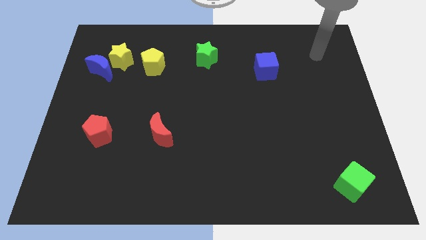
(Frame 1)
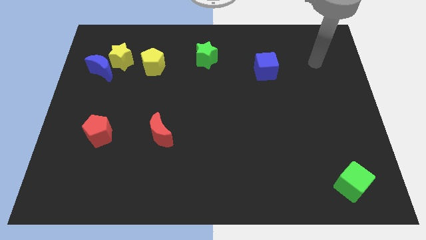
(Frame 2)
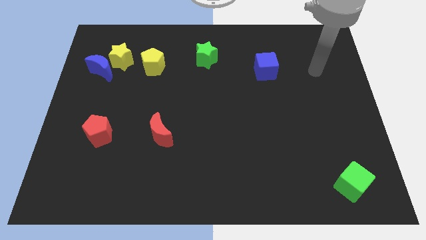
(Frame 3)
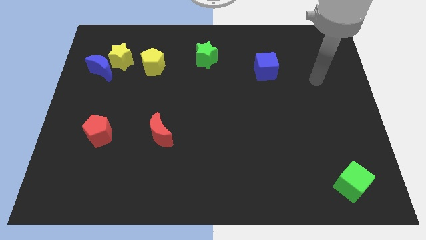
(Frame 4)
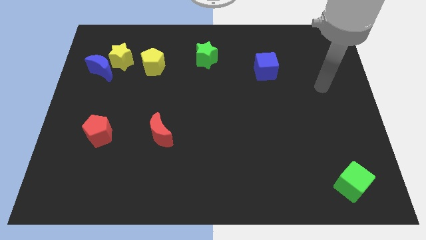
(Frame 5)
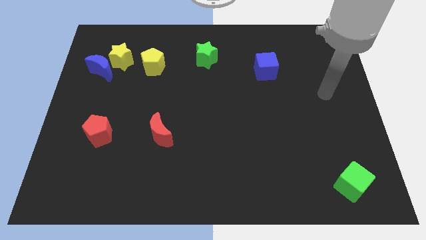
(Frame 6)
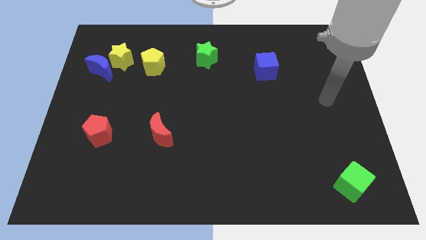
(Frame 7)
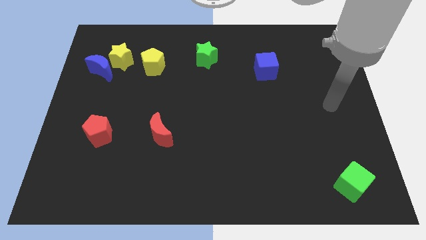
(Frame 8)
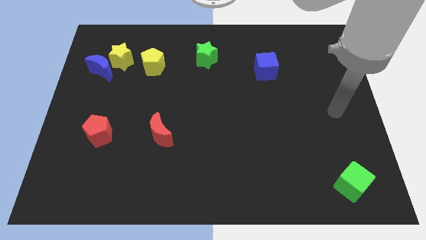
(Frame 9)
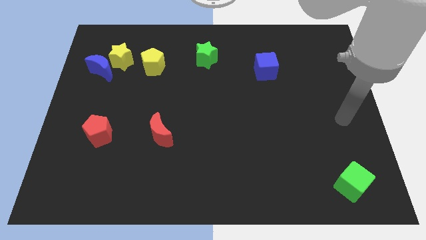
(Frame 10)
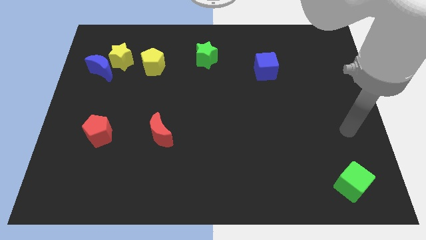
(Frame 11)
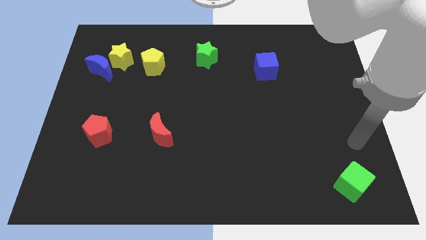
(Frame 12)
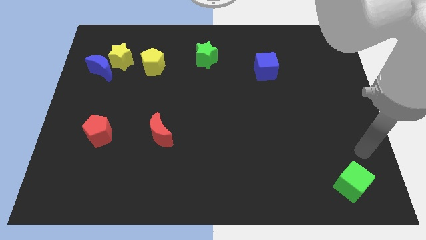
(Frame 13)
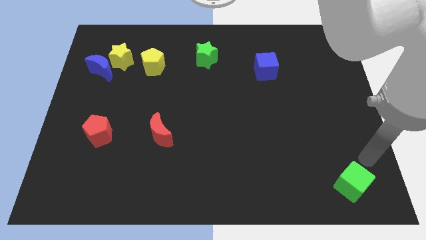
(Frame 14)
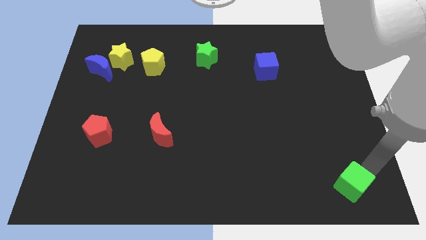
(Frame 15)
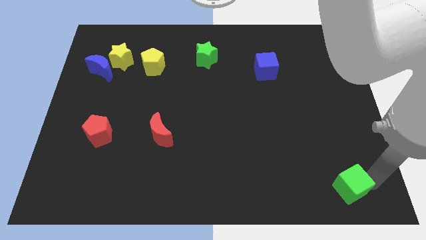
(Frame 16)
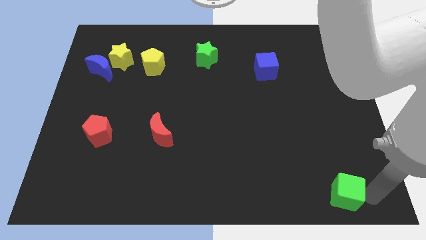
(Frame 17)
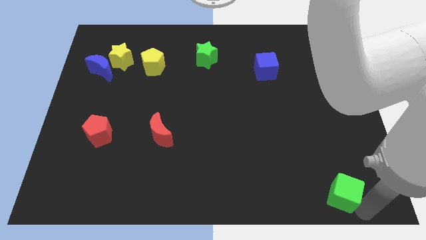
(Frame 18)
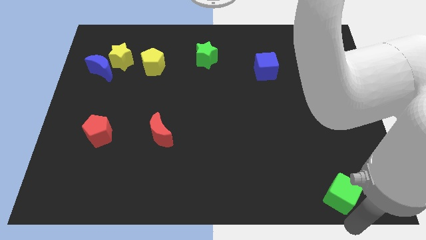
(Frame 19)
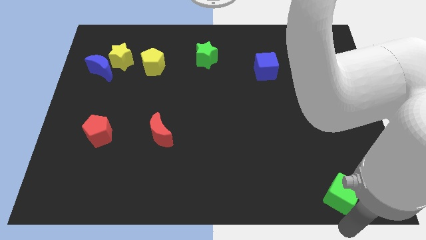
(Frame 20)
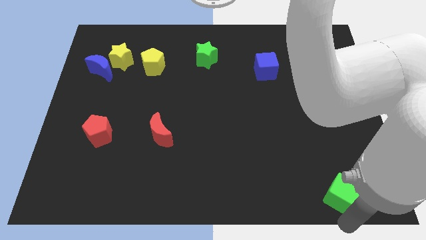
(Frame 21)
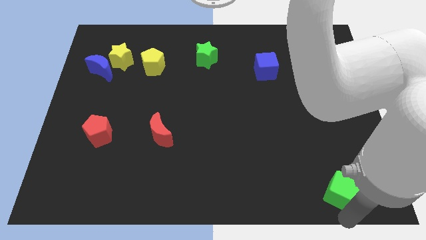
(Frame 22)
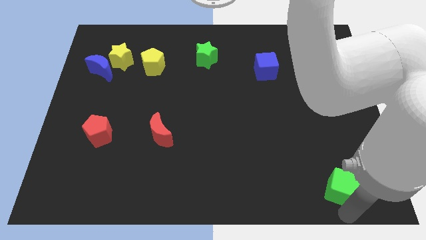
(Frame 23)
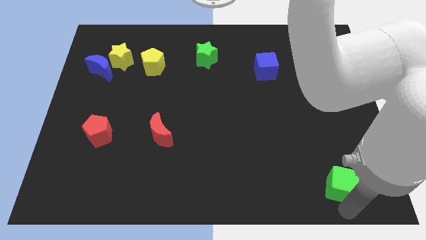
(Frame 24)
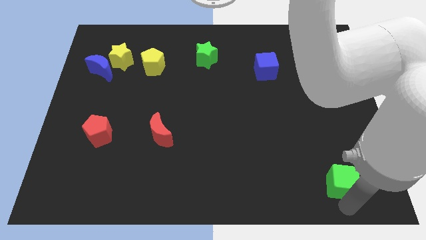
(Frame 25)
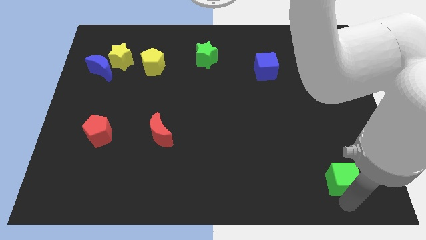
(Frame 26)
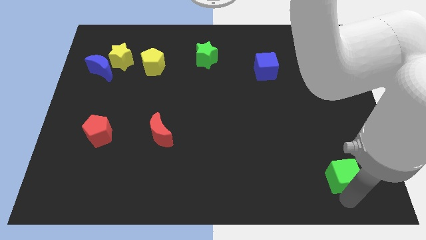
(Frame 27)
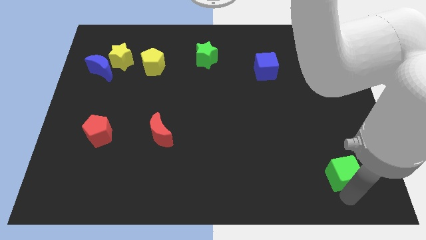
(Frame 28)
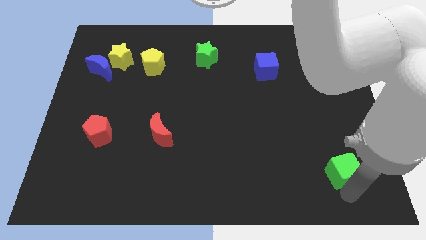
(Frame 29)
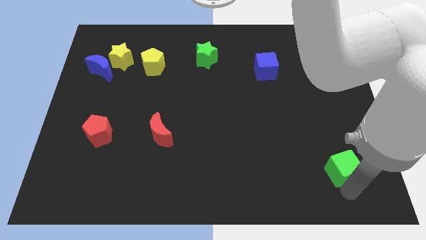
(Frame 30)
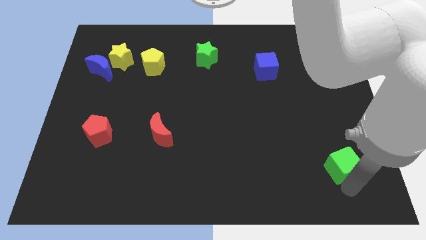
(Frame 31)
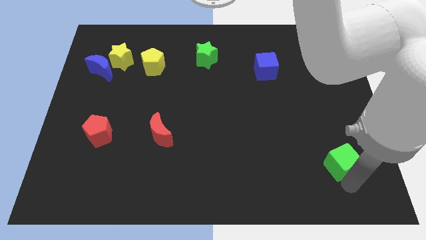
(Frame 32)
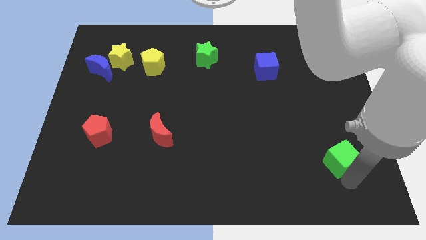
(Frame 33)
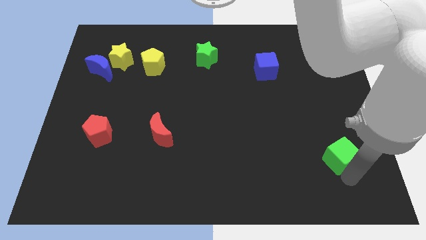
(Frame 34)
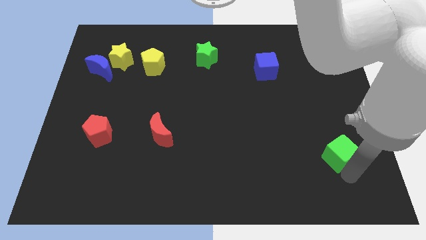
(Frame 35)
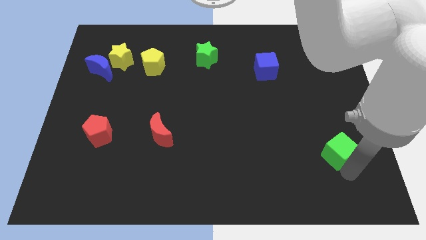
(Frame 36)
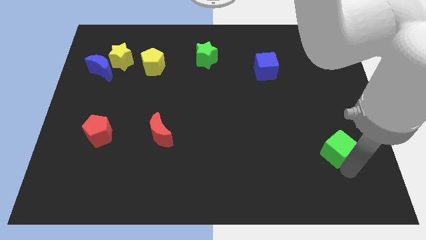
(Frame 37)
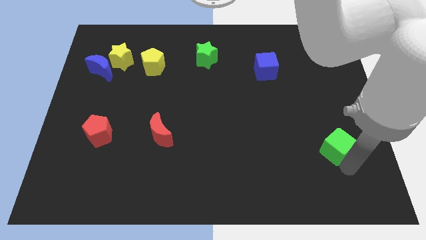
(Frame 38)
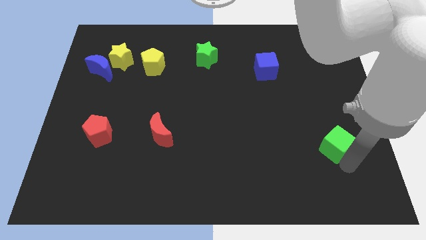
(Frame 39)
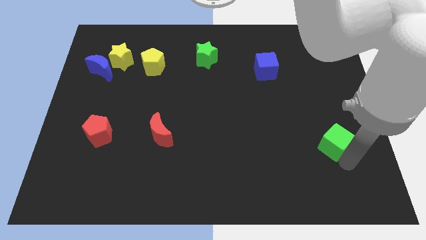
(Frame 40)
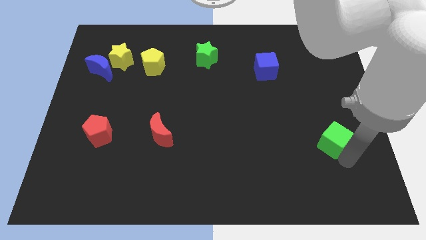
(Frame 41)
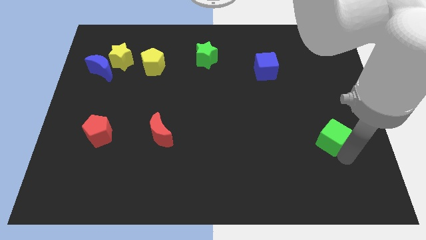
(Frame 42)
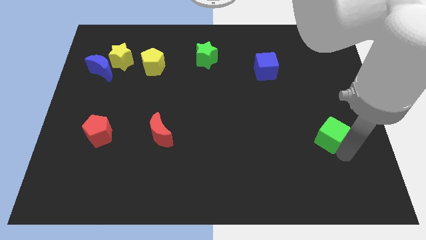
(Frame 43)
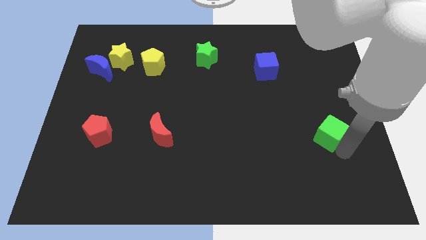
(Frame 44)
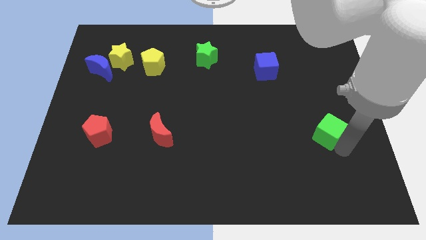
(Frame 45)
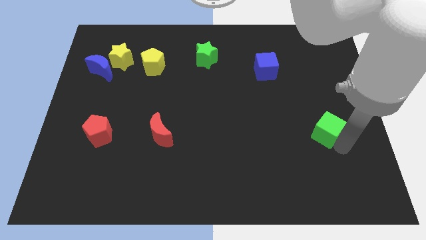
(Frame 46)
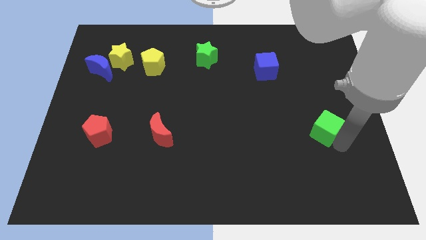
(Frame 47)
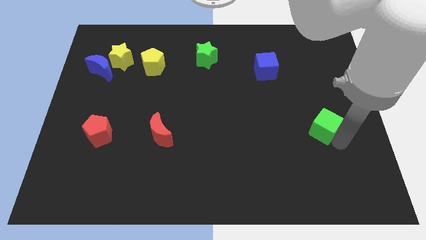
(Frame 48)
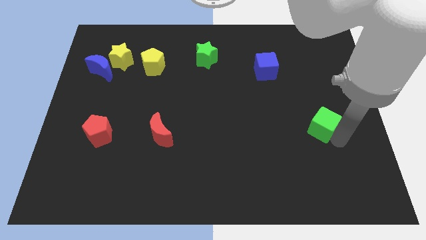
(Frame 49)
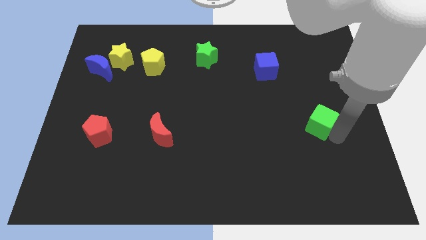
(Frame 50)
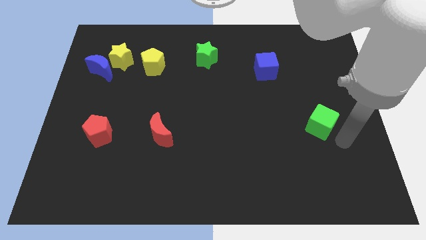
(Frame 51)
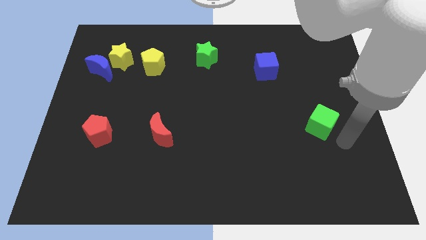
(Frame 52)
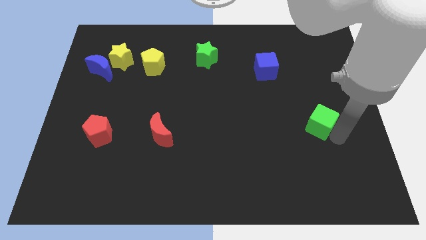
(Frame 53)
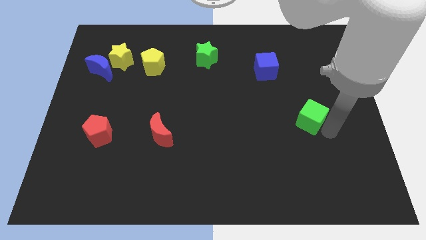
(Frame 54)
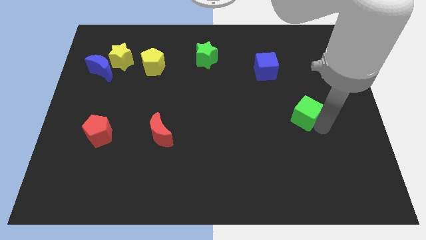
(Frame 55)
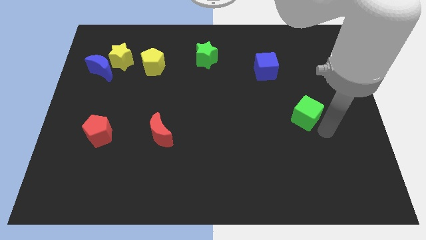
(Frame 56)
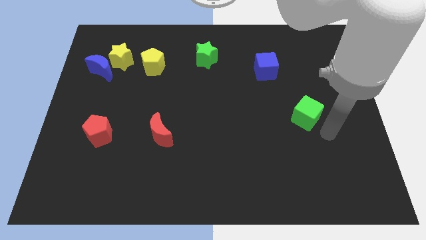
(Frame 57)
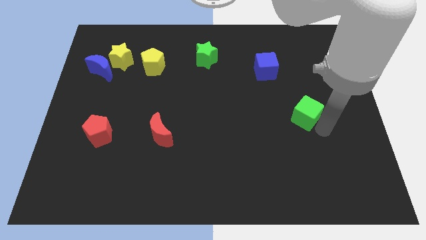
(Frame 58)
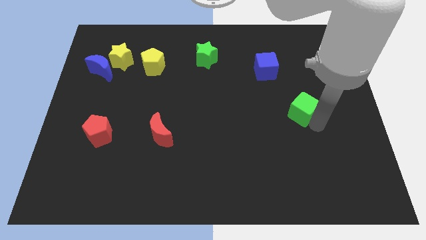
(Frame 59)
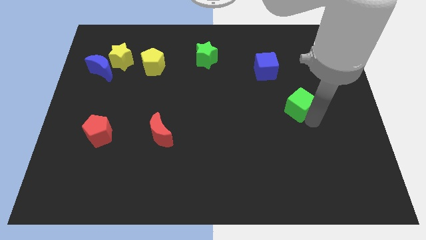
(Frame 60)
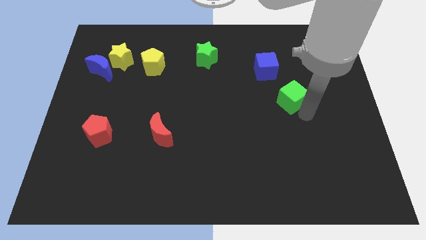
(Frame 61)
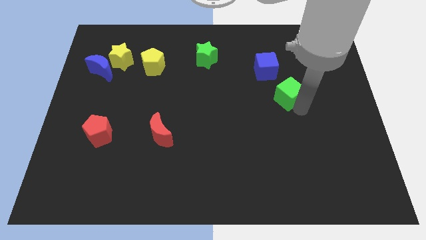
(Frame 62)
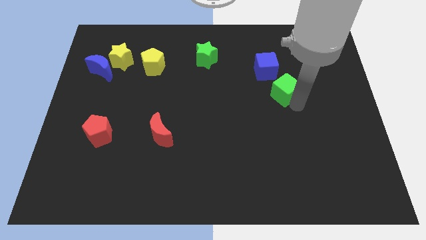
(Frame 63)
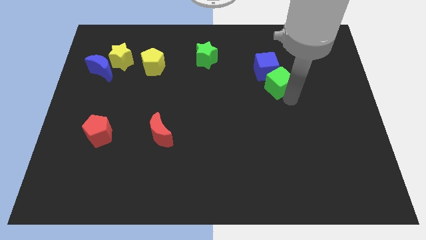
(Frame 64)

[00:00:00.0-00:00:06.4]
move the green cube close to the blue cube
